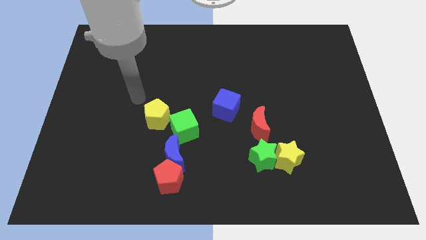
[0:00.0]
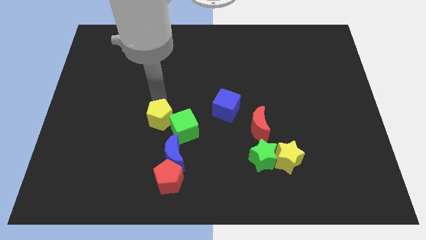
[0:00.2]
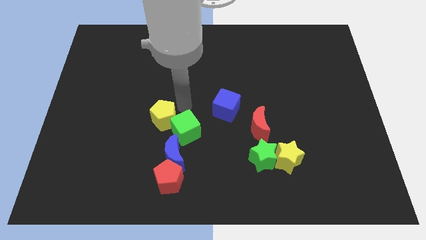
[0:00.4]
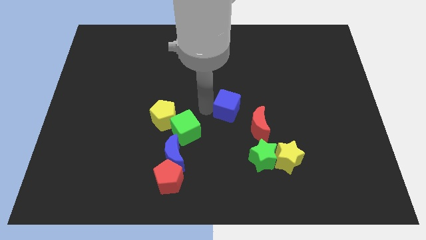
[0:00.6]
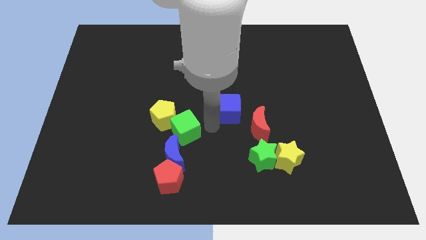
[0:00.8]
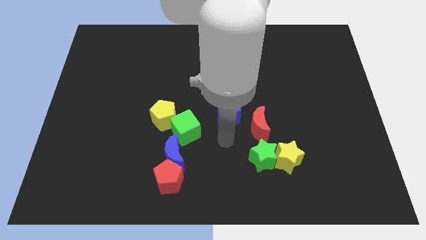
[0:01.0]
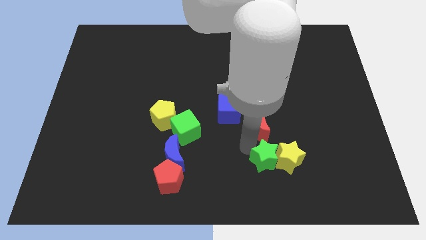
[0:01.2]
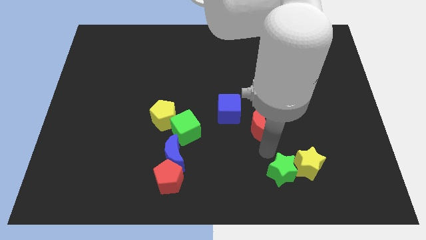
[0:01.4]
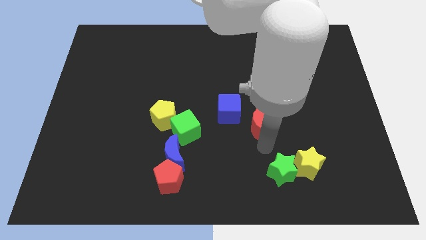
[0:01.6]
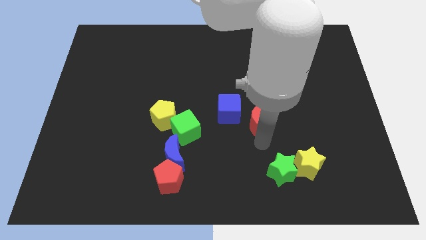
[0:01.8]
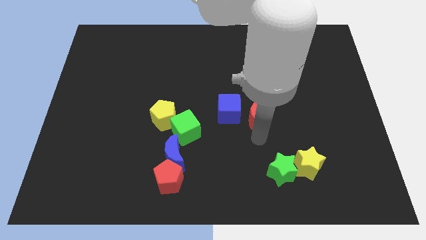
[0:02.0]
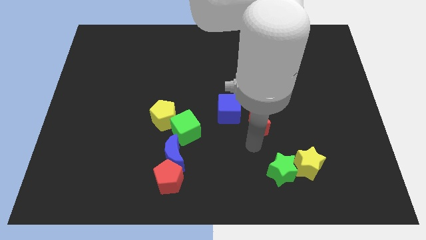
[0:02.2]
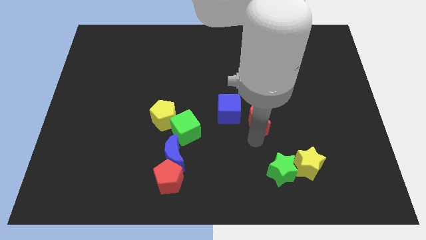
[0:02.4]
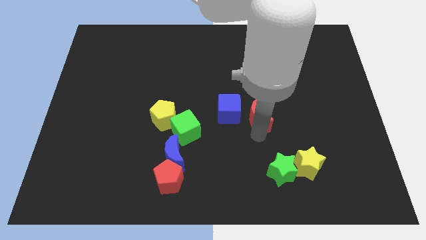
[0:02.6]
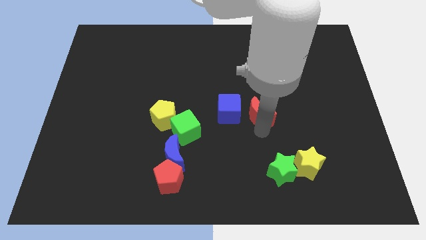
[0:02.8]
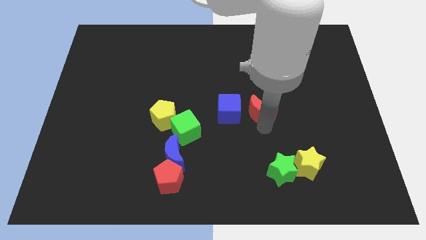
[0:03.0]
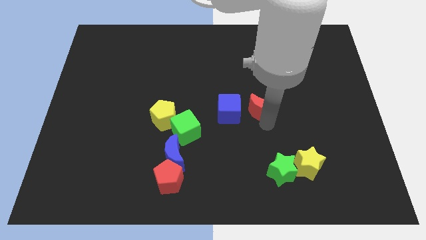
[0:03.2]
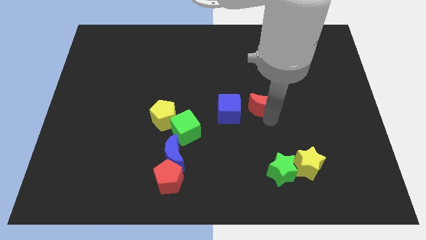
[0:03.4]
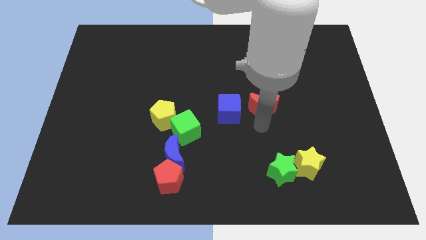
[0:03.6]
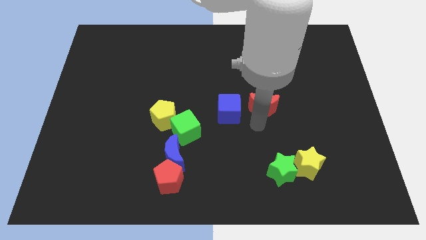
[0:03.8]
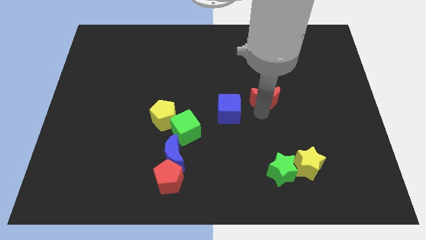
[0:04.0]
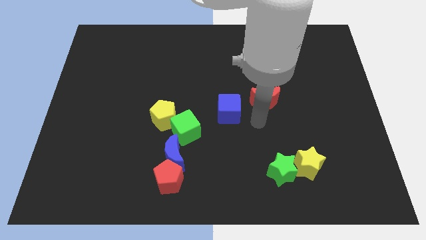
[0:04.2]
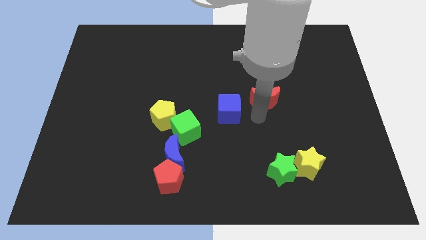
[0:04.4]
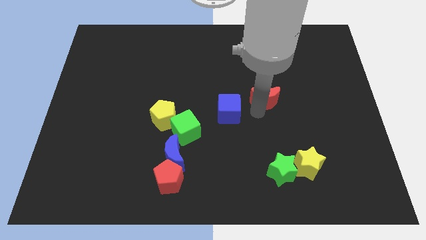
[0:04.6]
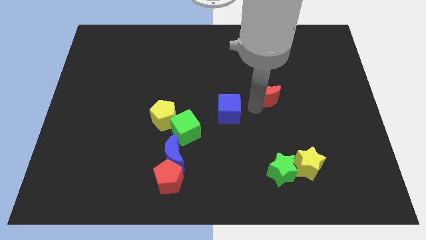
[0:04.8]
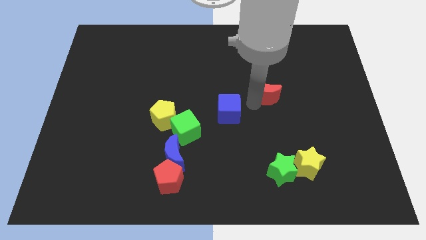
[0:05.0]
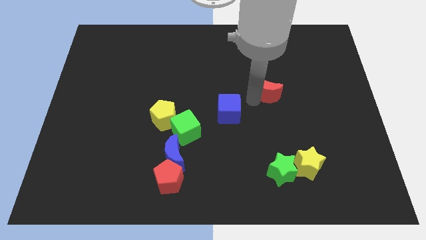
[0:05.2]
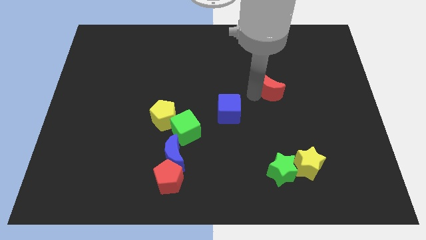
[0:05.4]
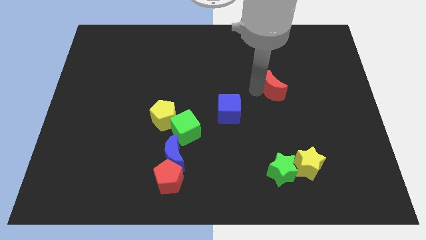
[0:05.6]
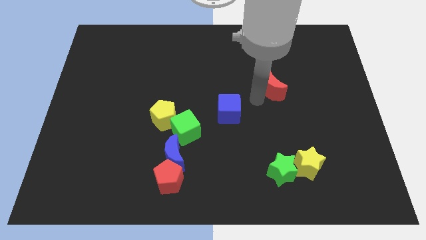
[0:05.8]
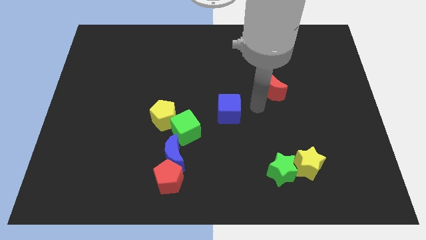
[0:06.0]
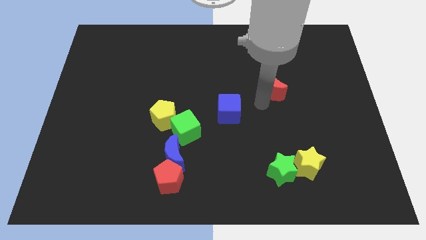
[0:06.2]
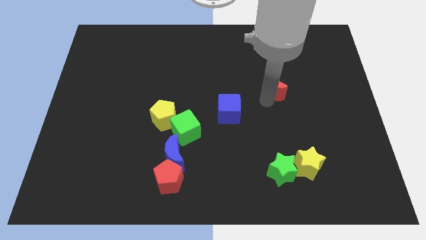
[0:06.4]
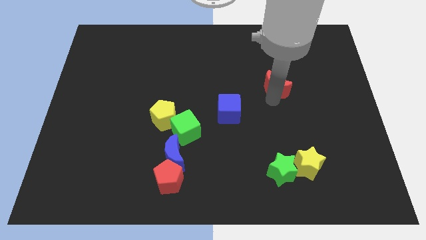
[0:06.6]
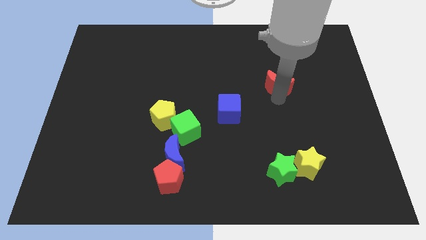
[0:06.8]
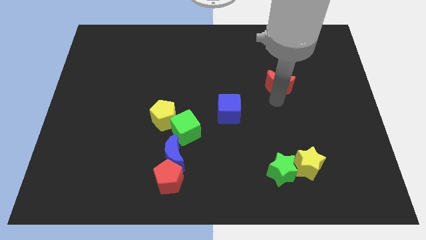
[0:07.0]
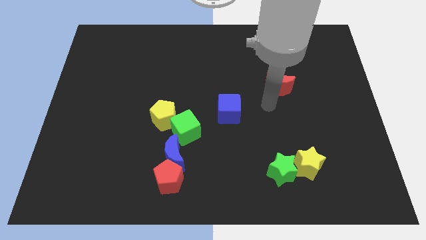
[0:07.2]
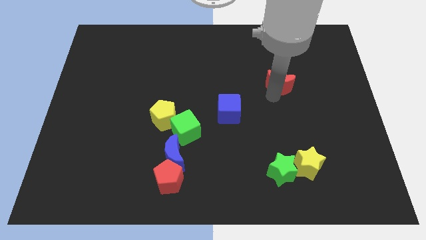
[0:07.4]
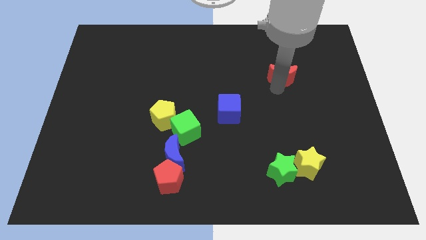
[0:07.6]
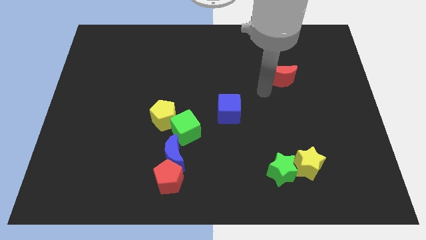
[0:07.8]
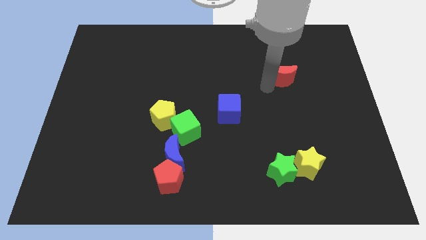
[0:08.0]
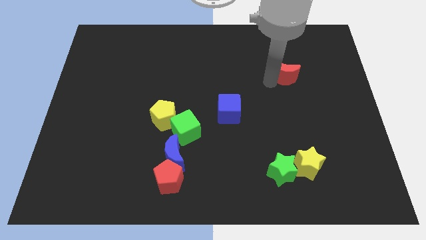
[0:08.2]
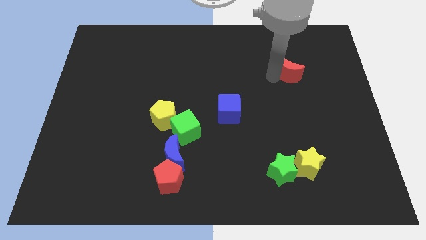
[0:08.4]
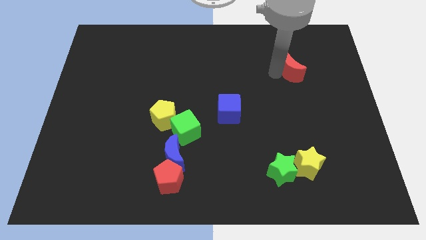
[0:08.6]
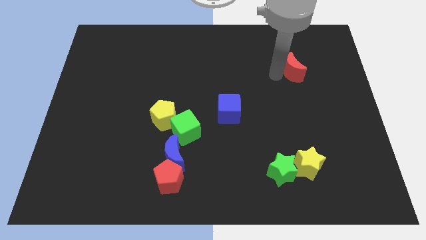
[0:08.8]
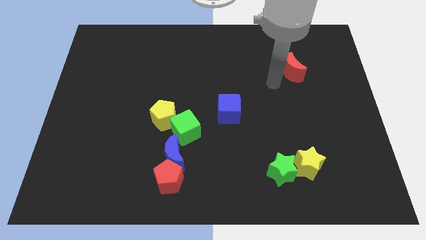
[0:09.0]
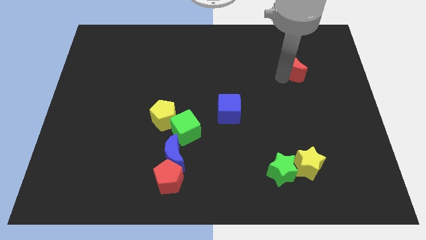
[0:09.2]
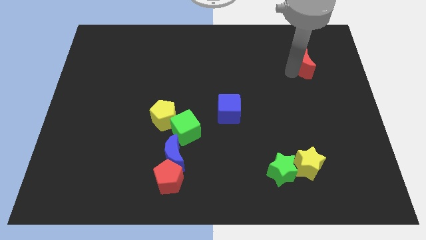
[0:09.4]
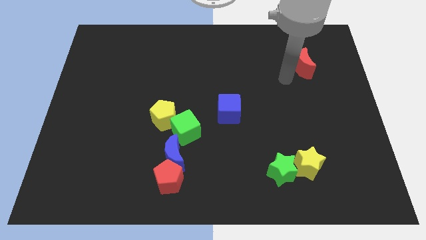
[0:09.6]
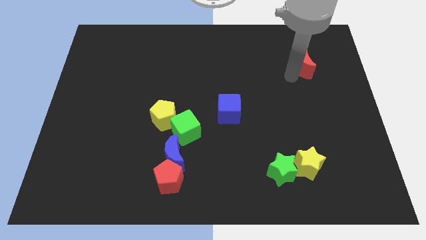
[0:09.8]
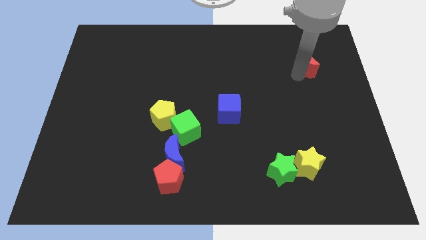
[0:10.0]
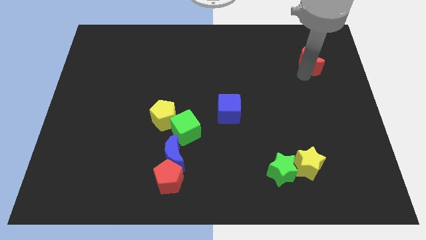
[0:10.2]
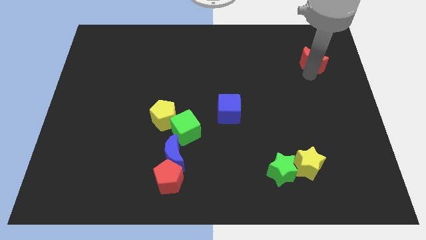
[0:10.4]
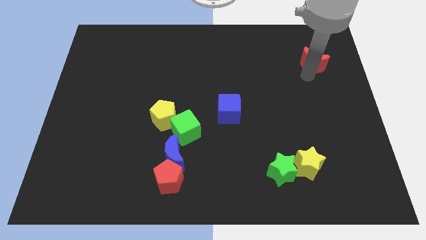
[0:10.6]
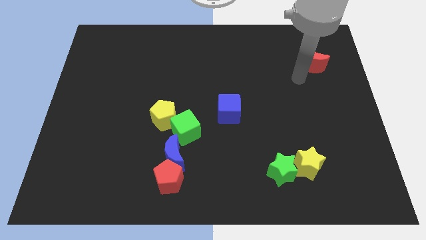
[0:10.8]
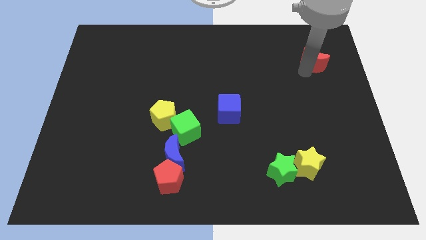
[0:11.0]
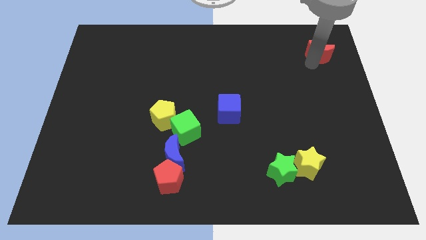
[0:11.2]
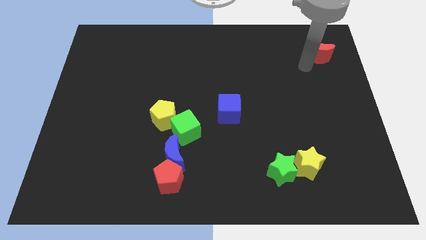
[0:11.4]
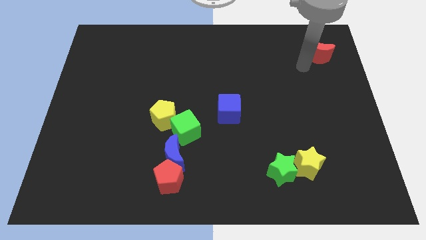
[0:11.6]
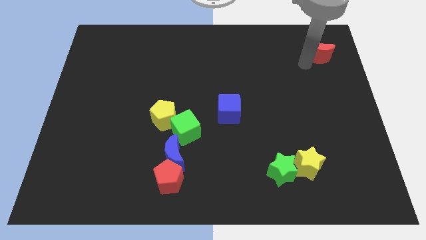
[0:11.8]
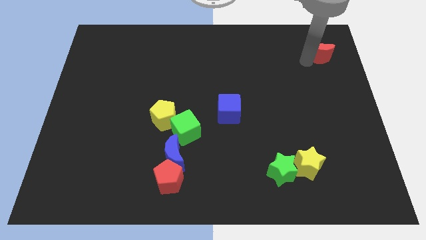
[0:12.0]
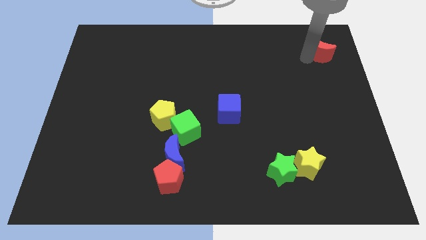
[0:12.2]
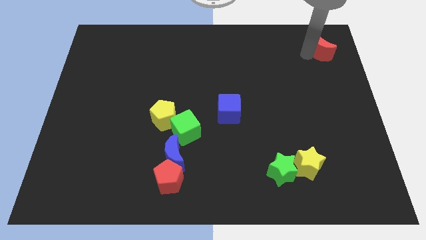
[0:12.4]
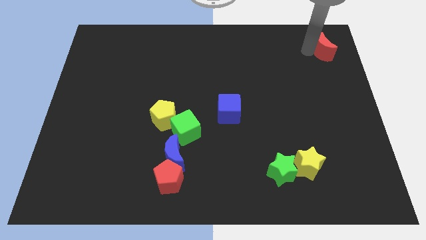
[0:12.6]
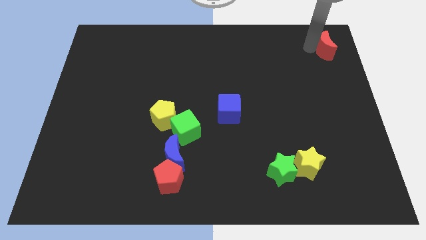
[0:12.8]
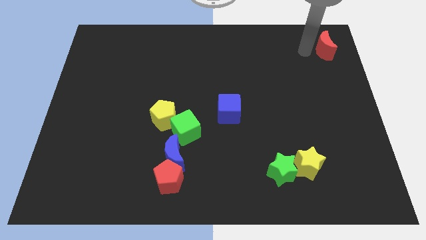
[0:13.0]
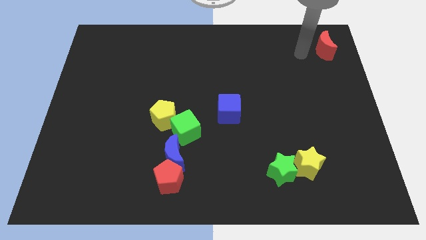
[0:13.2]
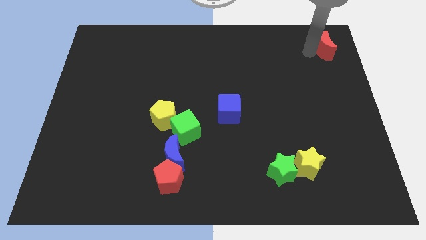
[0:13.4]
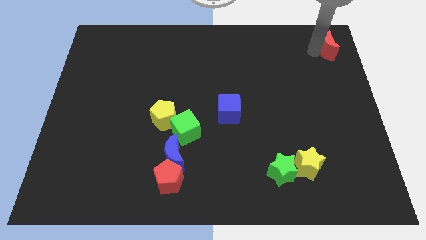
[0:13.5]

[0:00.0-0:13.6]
move the red moon to the upper right corner
